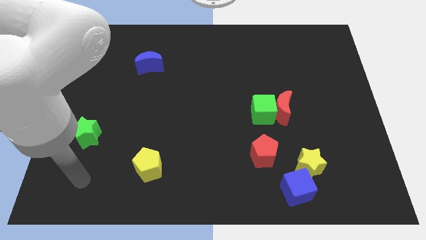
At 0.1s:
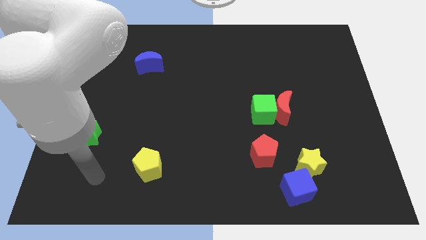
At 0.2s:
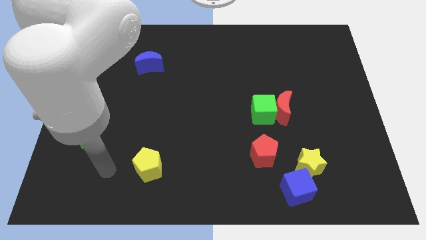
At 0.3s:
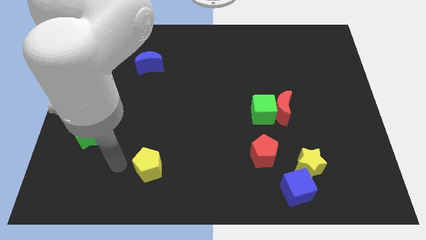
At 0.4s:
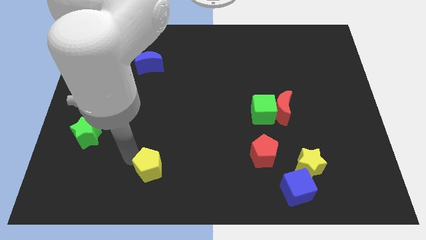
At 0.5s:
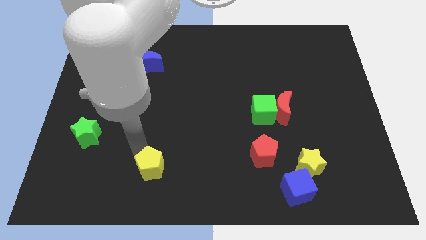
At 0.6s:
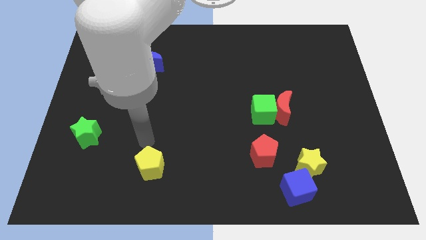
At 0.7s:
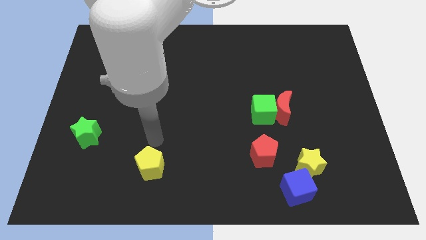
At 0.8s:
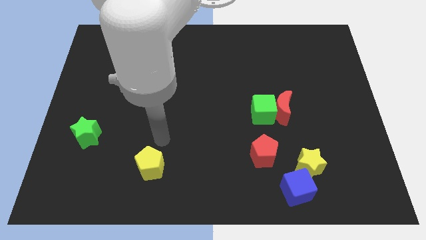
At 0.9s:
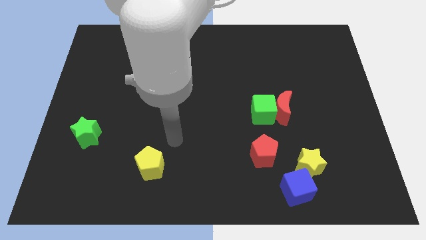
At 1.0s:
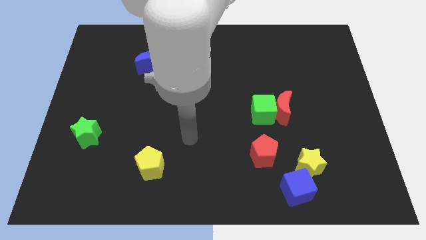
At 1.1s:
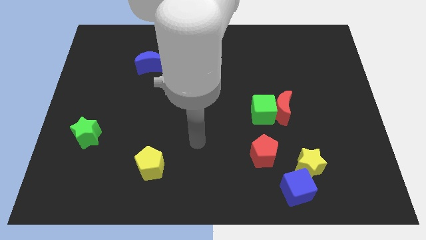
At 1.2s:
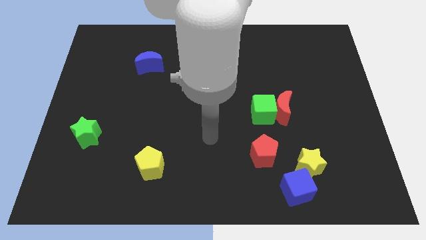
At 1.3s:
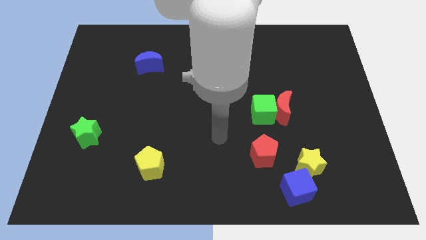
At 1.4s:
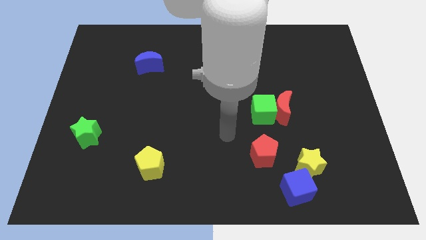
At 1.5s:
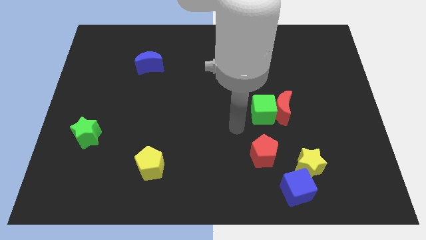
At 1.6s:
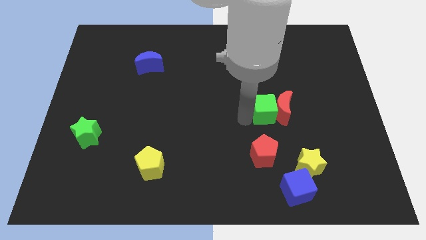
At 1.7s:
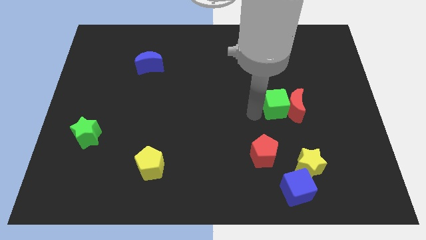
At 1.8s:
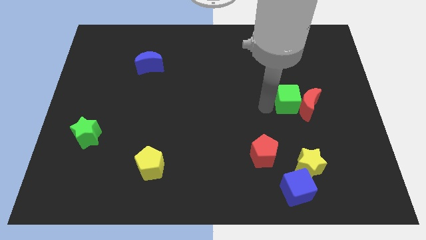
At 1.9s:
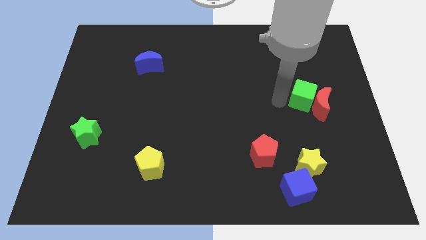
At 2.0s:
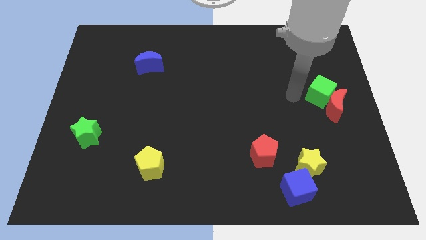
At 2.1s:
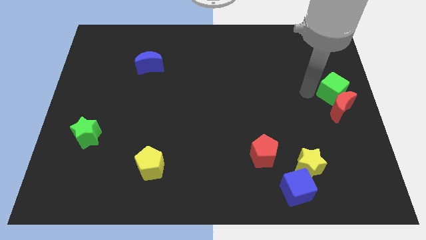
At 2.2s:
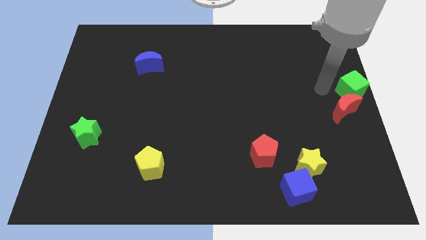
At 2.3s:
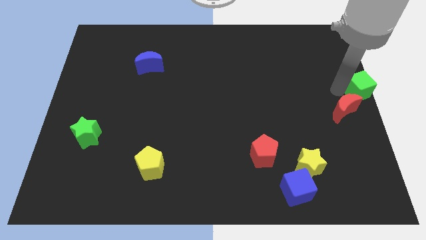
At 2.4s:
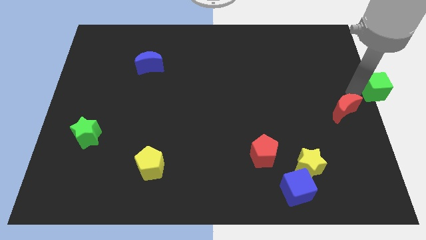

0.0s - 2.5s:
move the red moon away from the green cube

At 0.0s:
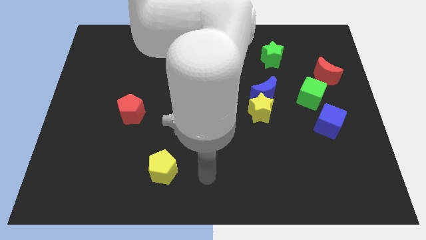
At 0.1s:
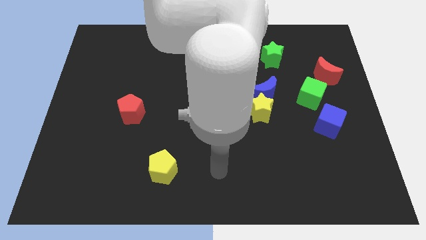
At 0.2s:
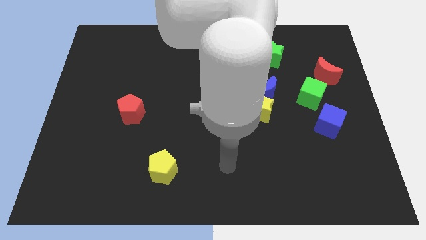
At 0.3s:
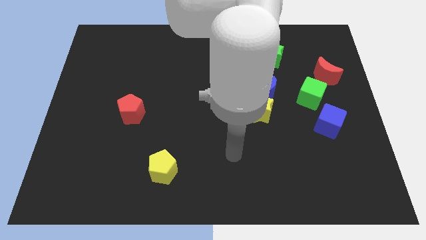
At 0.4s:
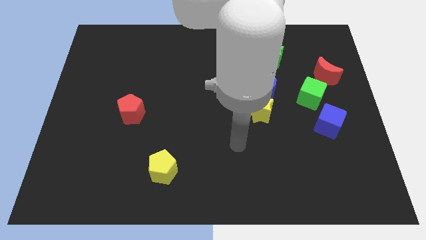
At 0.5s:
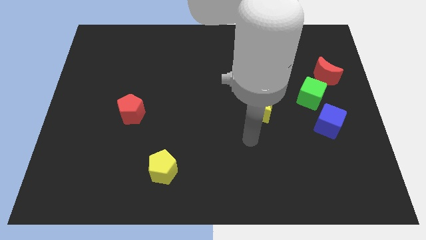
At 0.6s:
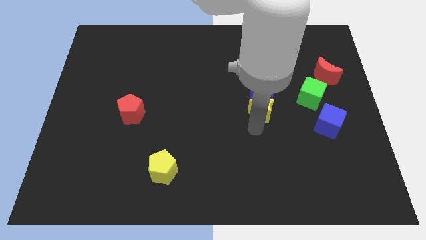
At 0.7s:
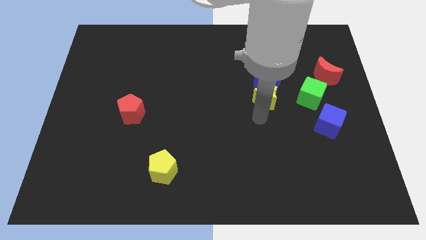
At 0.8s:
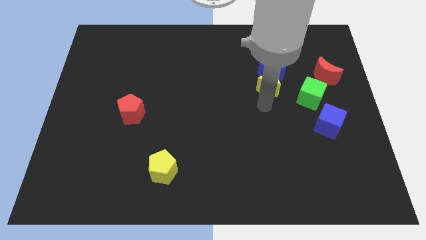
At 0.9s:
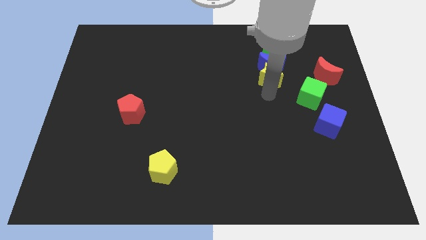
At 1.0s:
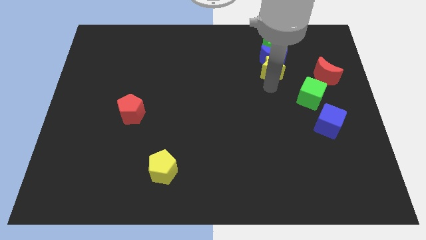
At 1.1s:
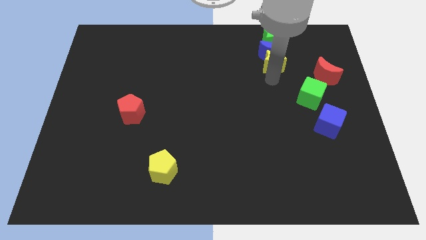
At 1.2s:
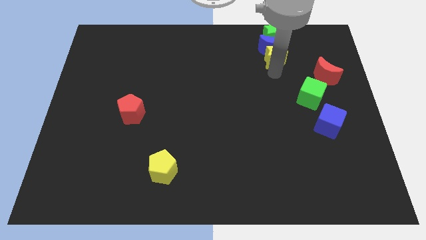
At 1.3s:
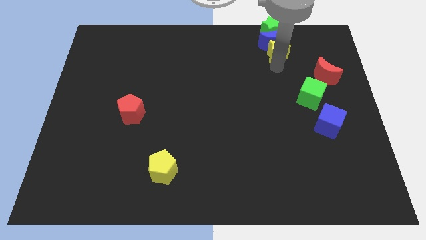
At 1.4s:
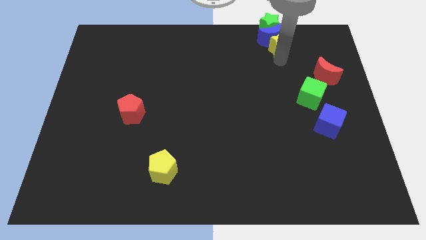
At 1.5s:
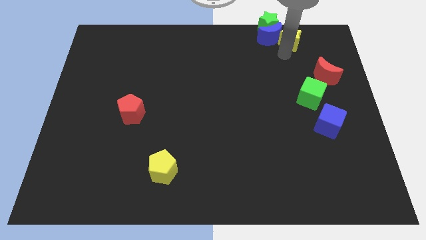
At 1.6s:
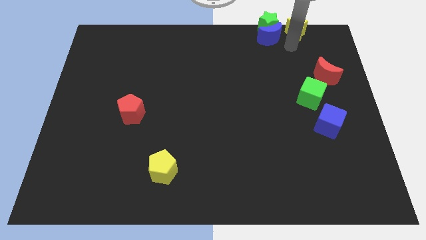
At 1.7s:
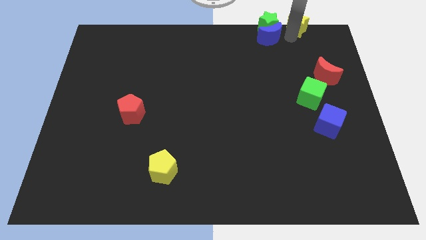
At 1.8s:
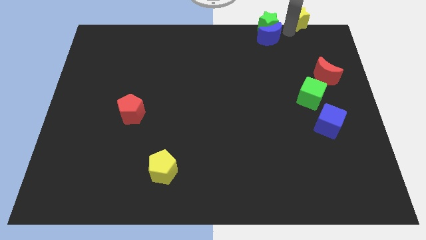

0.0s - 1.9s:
separate the blue moon from the yellow star

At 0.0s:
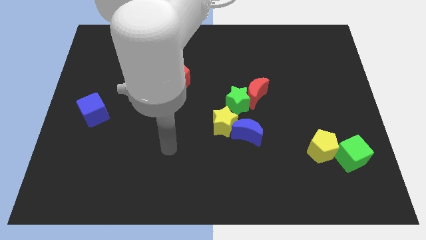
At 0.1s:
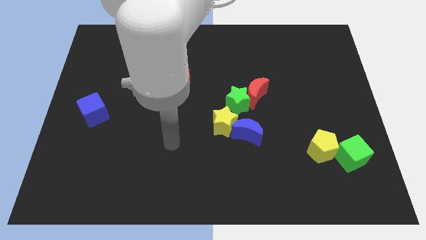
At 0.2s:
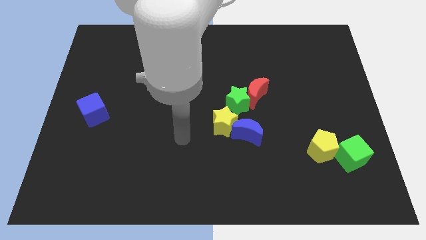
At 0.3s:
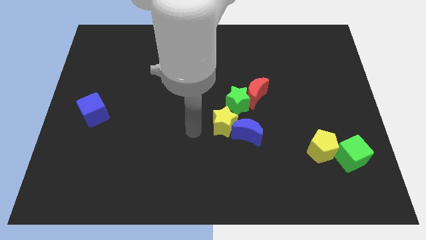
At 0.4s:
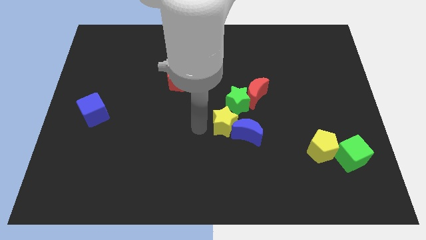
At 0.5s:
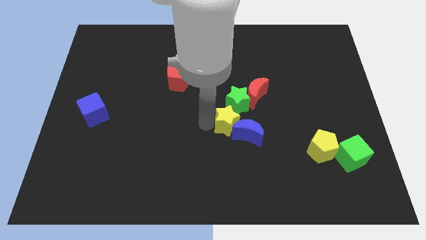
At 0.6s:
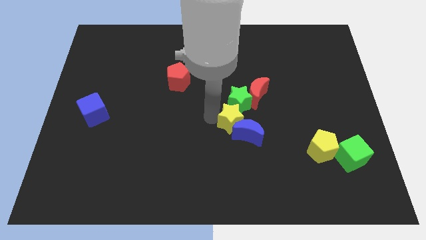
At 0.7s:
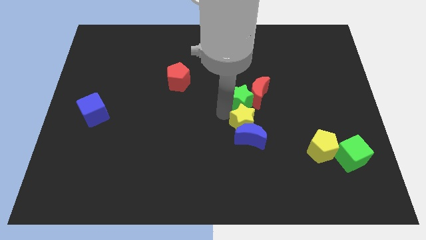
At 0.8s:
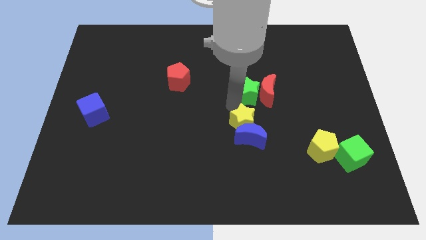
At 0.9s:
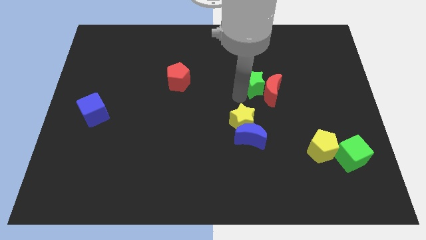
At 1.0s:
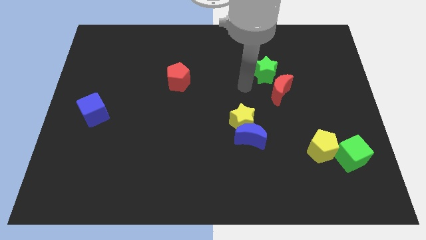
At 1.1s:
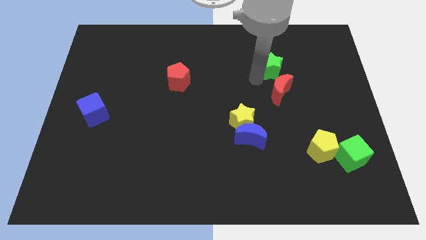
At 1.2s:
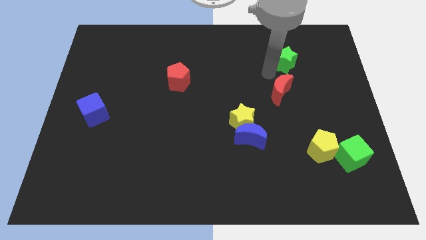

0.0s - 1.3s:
separate the red moon from the green star

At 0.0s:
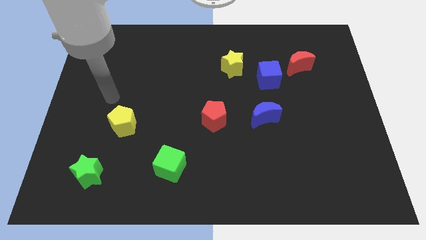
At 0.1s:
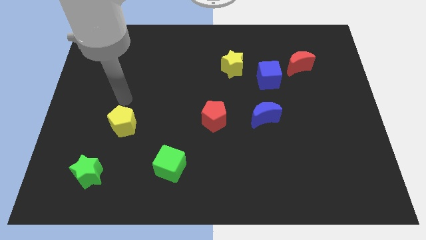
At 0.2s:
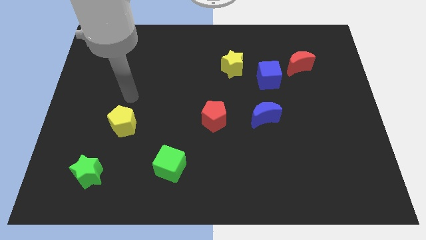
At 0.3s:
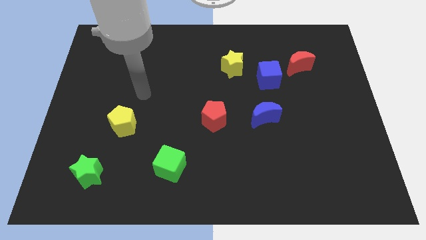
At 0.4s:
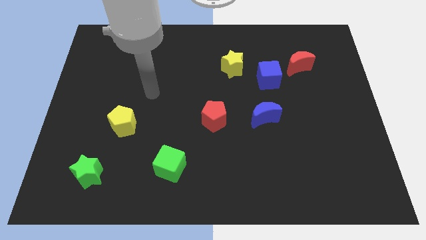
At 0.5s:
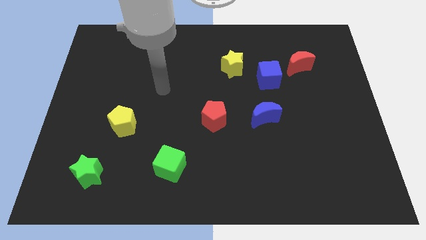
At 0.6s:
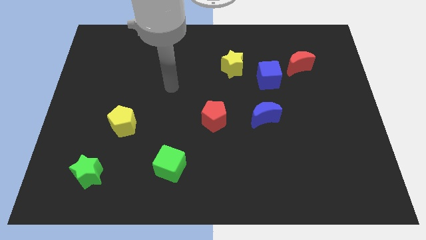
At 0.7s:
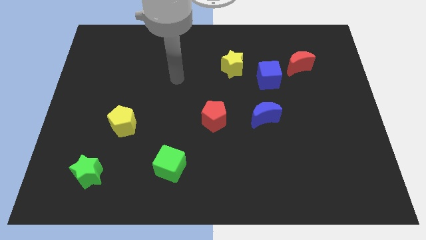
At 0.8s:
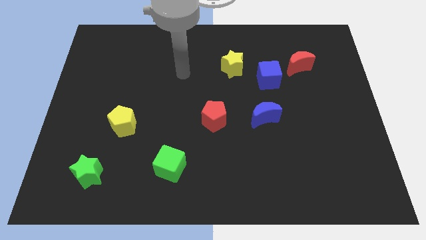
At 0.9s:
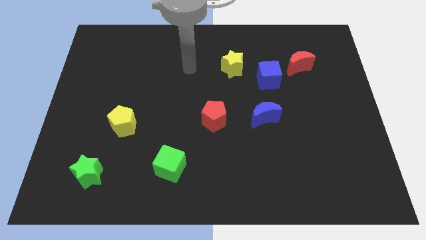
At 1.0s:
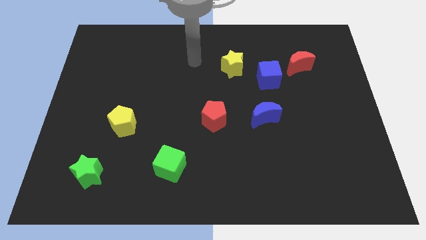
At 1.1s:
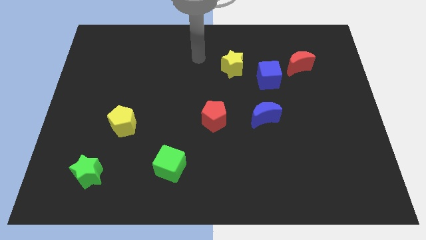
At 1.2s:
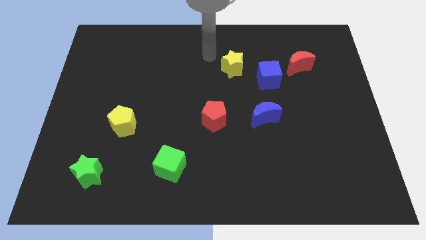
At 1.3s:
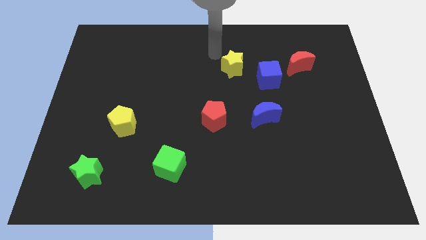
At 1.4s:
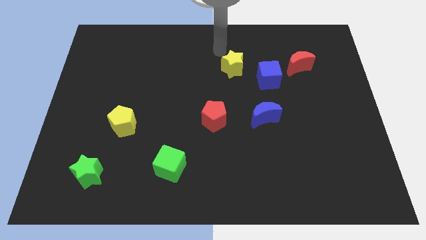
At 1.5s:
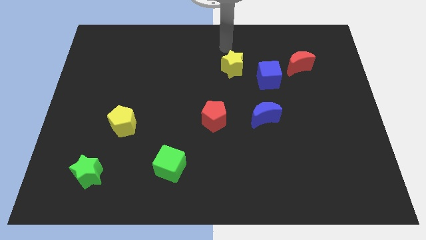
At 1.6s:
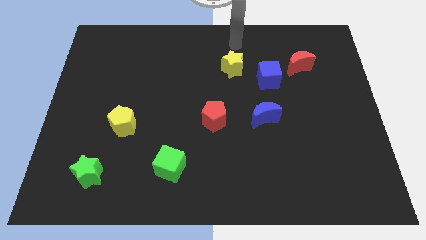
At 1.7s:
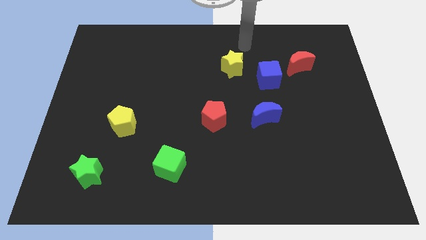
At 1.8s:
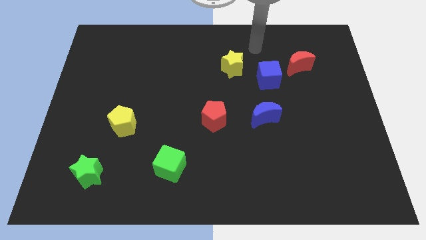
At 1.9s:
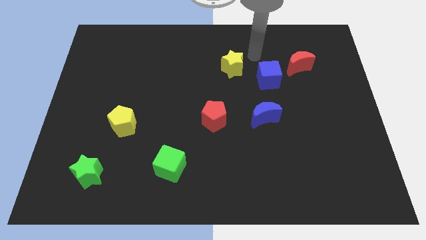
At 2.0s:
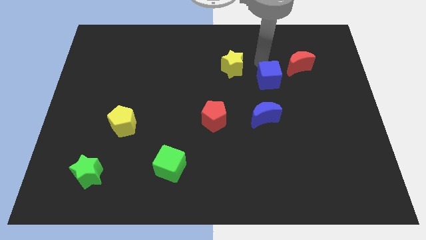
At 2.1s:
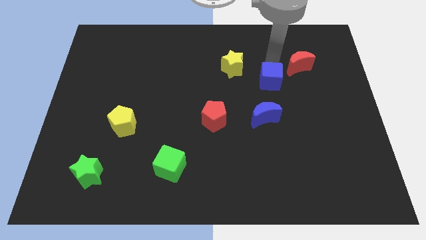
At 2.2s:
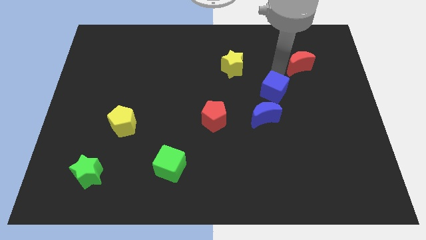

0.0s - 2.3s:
move the red moon away from the blue cube

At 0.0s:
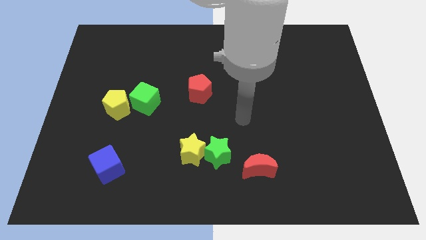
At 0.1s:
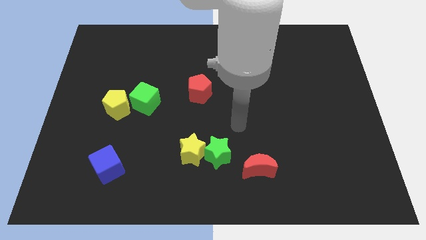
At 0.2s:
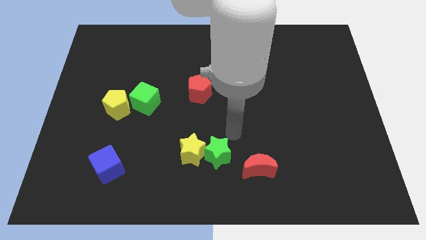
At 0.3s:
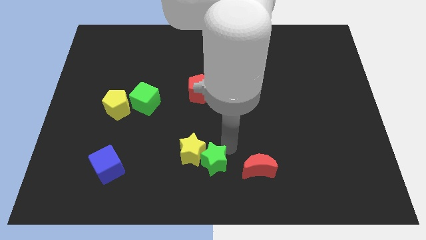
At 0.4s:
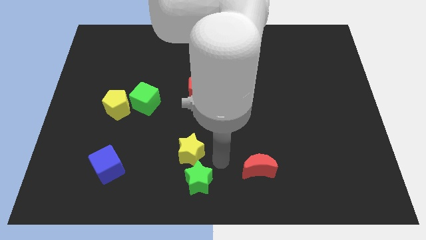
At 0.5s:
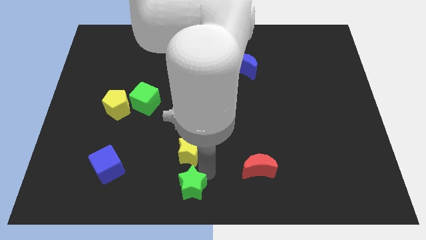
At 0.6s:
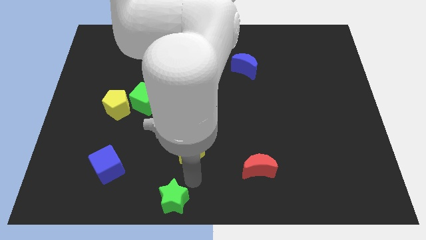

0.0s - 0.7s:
separate the yellow star from the green star

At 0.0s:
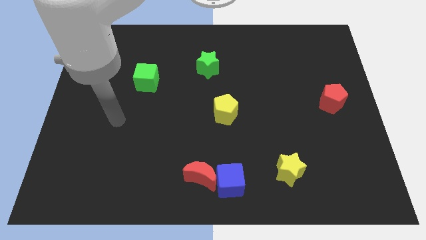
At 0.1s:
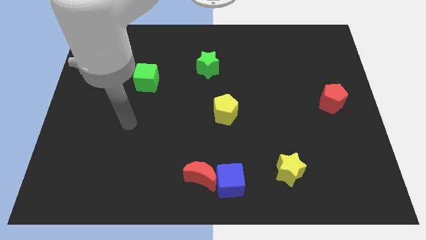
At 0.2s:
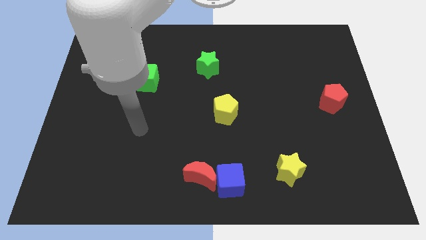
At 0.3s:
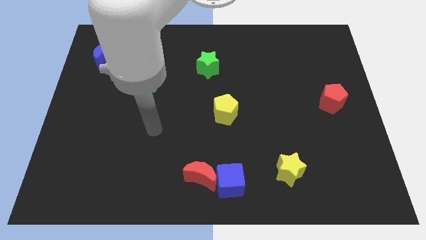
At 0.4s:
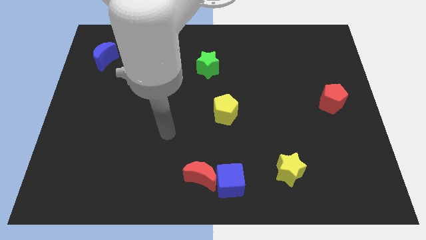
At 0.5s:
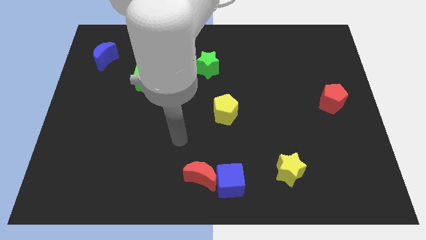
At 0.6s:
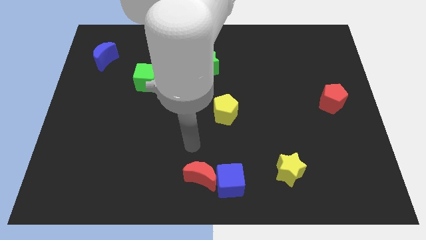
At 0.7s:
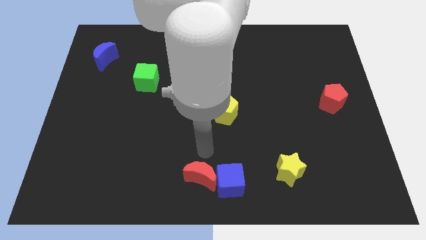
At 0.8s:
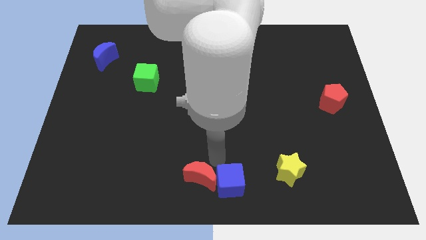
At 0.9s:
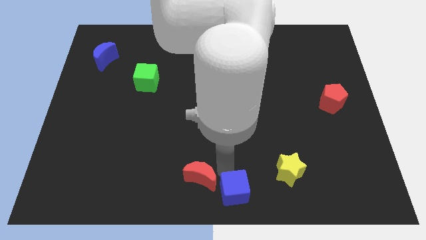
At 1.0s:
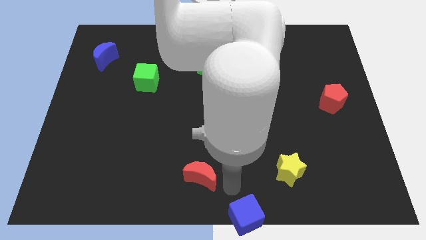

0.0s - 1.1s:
separate the red moon from the blue cube
